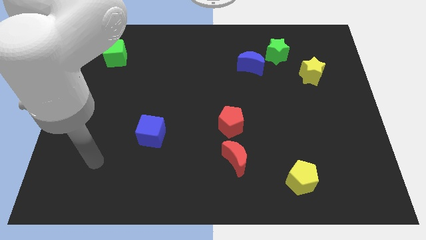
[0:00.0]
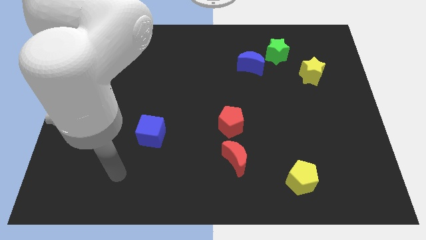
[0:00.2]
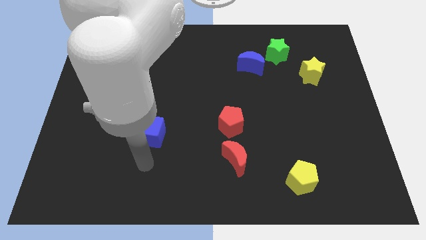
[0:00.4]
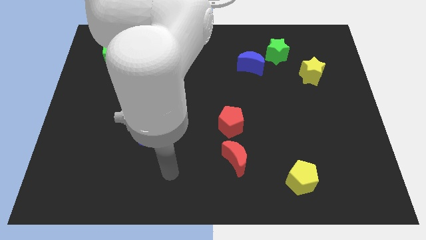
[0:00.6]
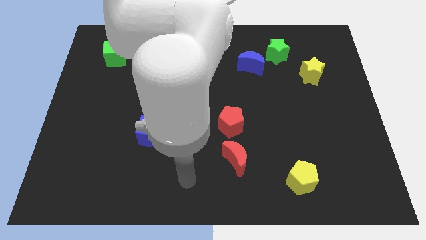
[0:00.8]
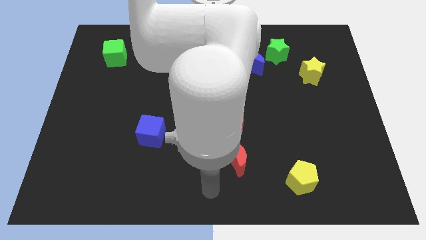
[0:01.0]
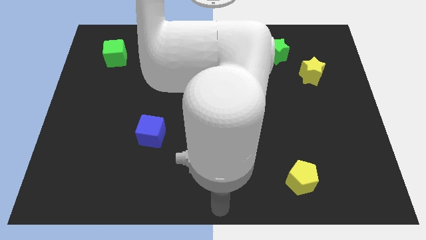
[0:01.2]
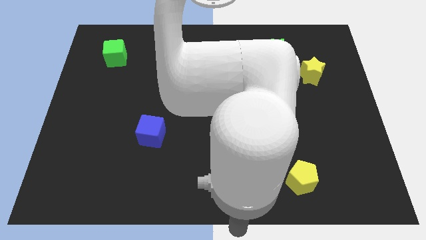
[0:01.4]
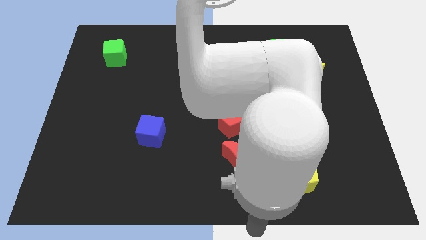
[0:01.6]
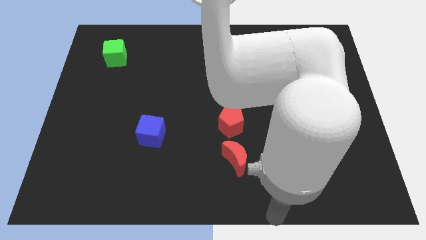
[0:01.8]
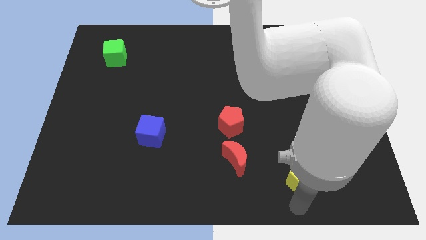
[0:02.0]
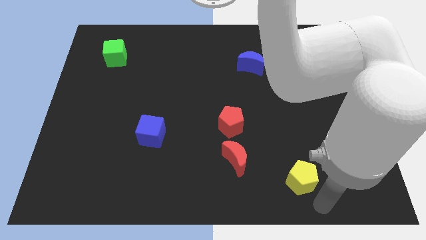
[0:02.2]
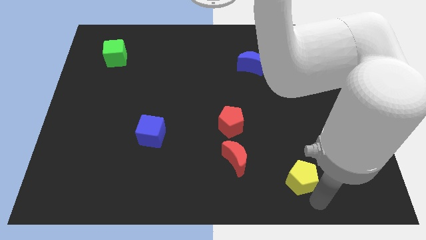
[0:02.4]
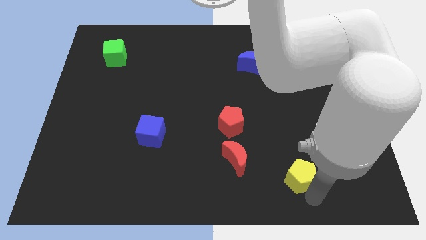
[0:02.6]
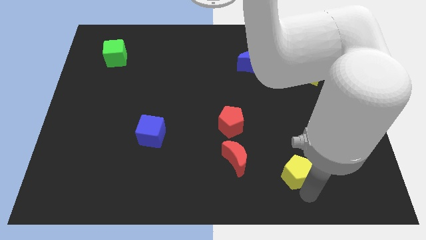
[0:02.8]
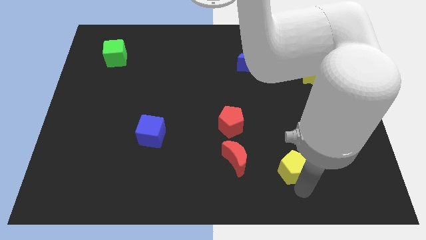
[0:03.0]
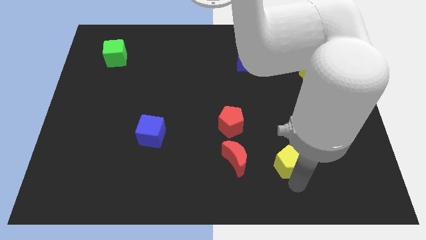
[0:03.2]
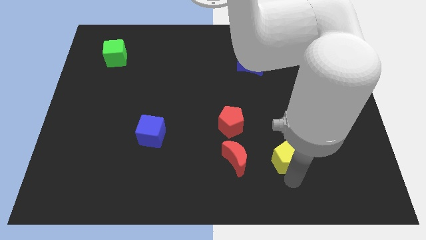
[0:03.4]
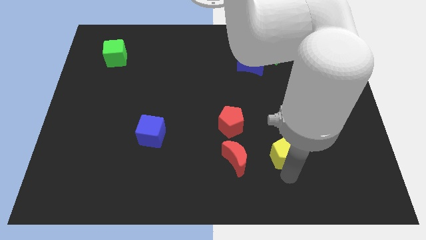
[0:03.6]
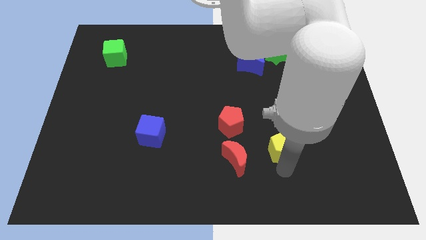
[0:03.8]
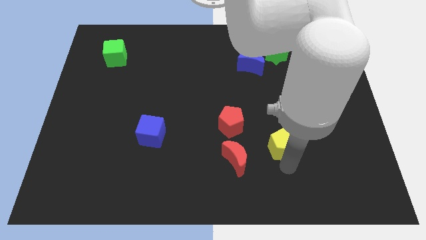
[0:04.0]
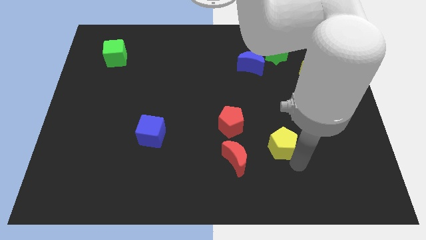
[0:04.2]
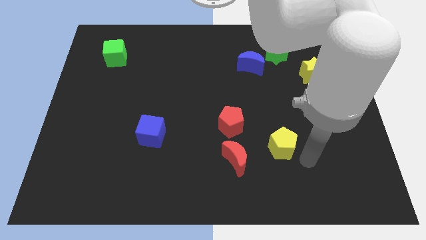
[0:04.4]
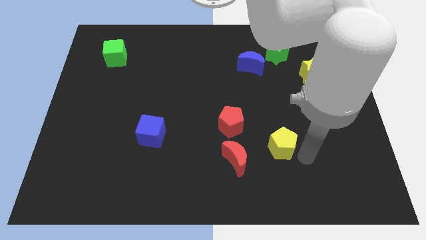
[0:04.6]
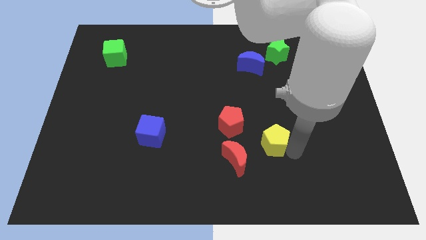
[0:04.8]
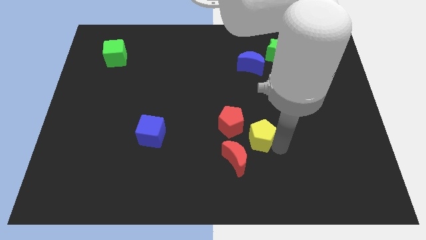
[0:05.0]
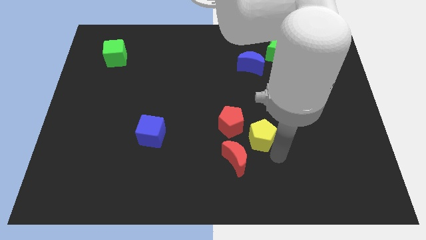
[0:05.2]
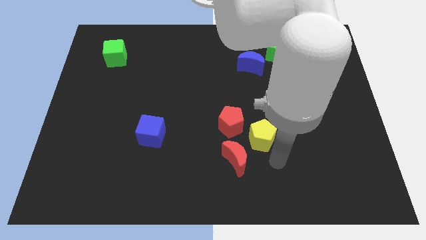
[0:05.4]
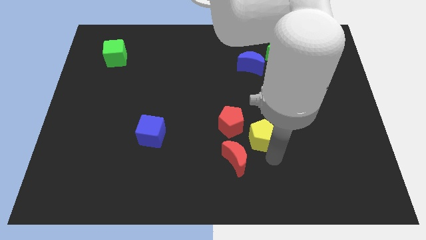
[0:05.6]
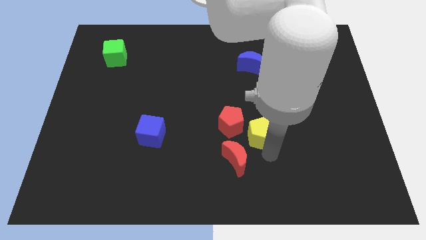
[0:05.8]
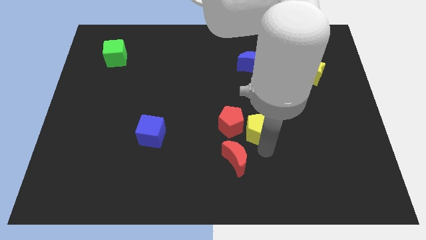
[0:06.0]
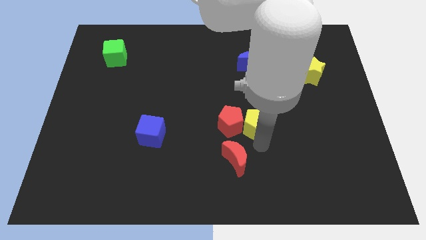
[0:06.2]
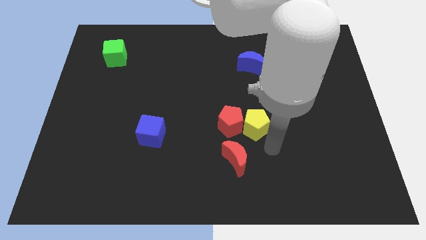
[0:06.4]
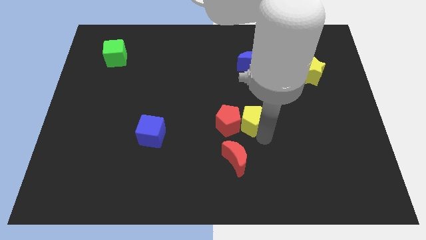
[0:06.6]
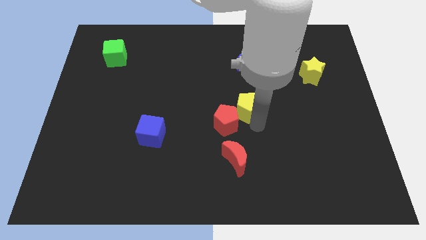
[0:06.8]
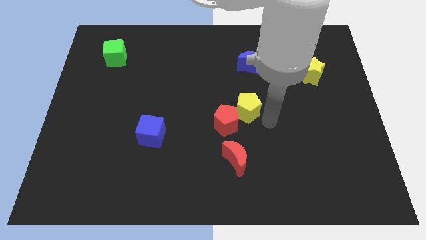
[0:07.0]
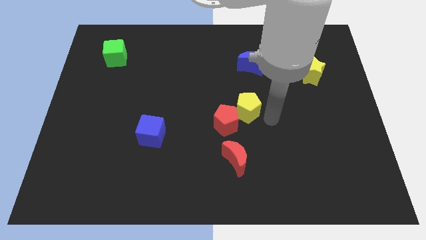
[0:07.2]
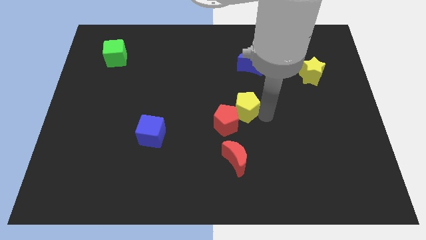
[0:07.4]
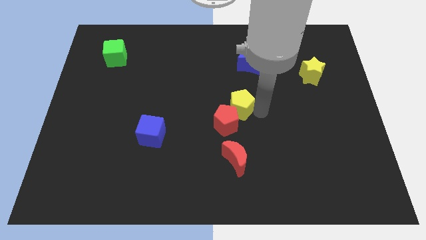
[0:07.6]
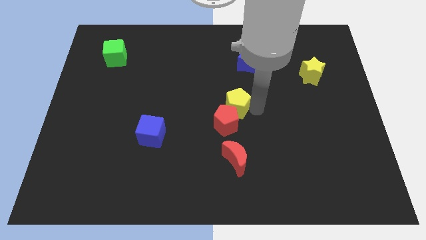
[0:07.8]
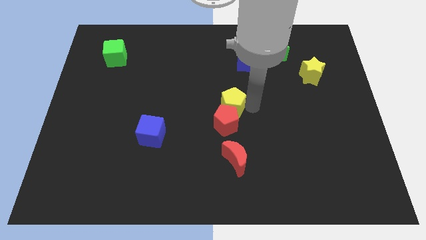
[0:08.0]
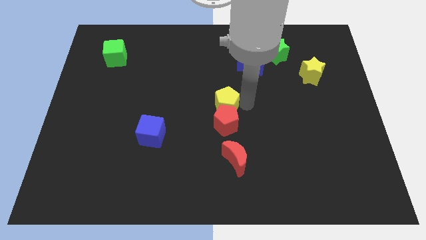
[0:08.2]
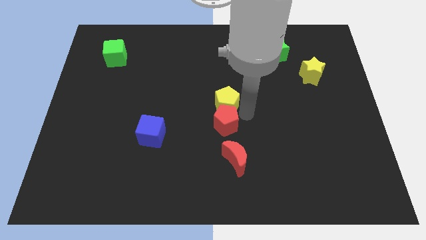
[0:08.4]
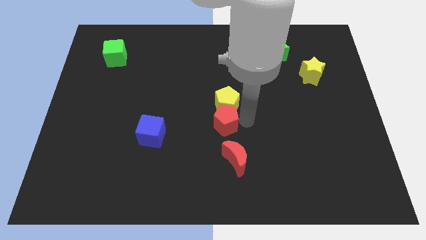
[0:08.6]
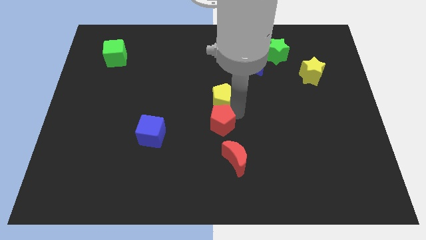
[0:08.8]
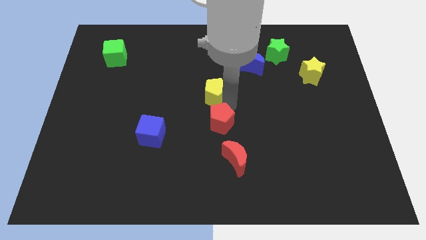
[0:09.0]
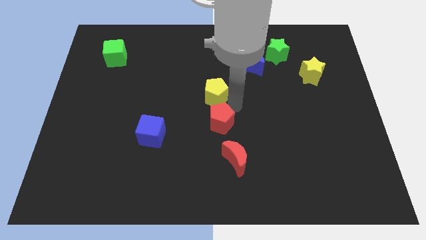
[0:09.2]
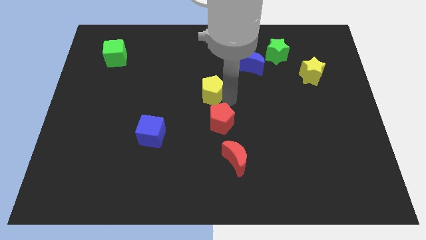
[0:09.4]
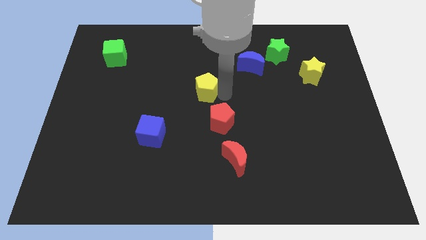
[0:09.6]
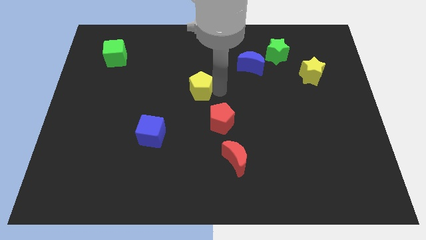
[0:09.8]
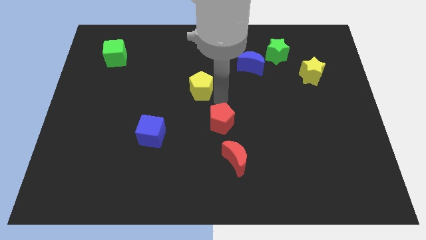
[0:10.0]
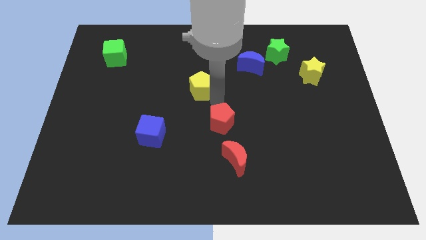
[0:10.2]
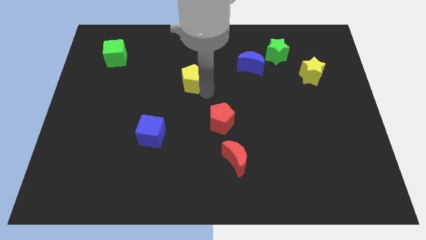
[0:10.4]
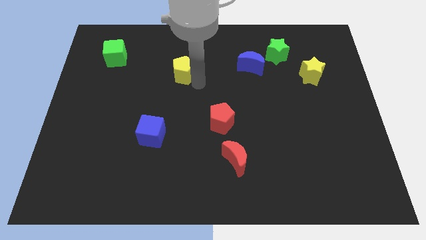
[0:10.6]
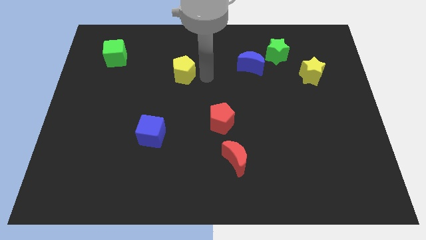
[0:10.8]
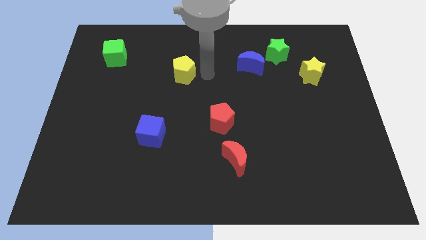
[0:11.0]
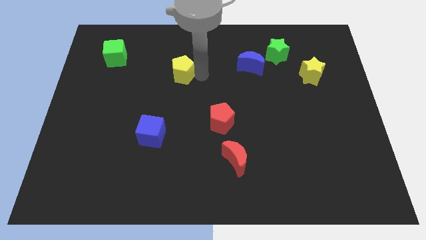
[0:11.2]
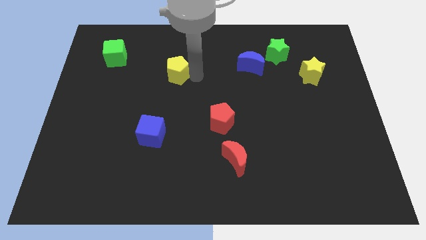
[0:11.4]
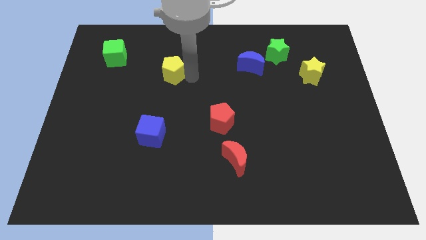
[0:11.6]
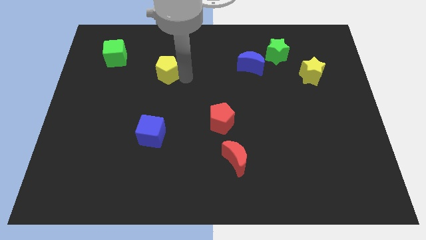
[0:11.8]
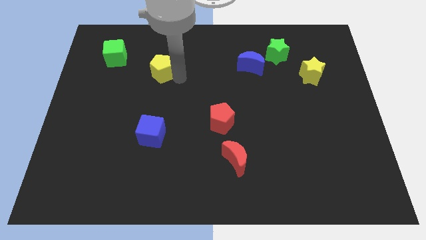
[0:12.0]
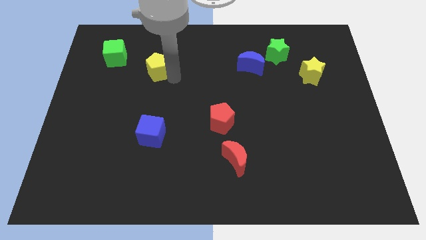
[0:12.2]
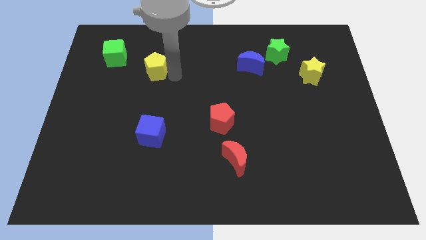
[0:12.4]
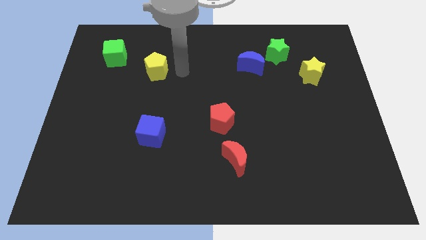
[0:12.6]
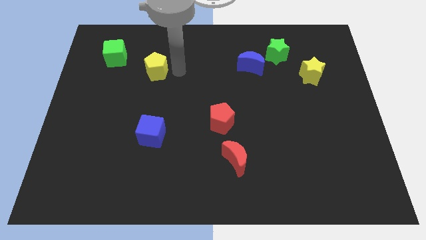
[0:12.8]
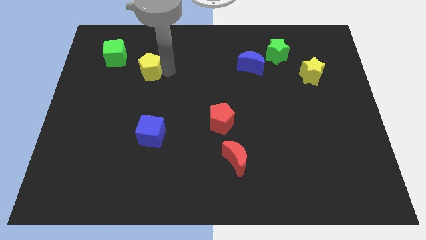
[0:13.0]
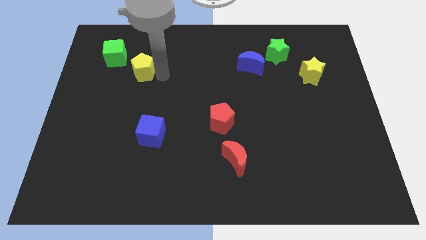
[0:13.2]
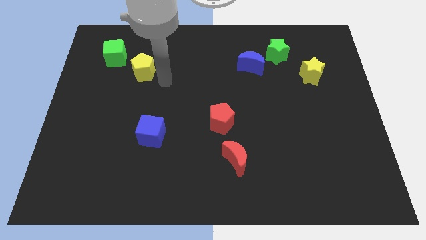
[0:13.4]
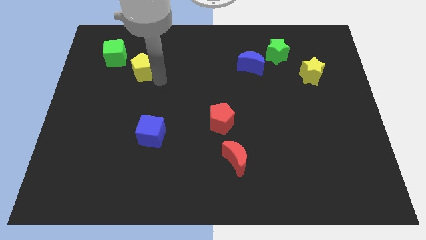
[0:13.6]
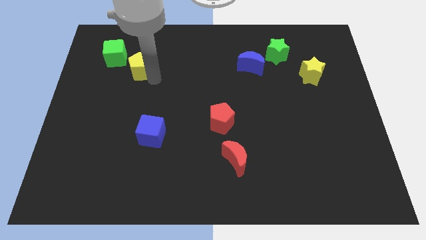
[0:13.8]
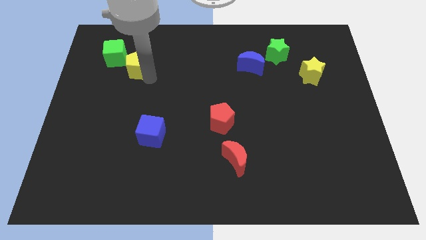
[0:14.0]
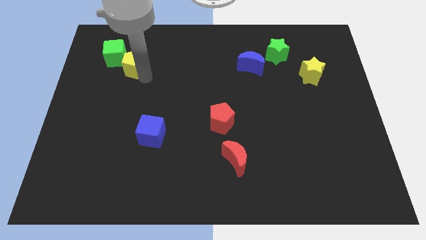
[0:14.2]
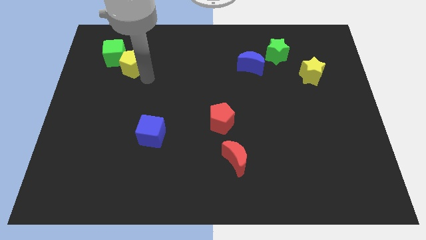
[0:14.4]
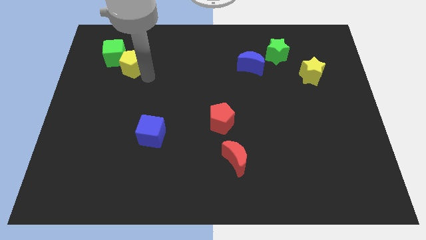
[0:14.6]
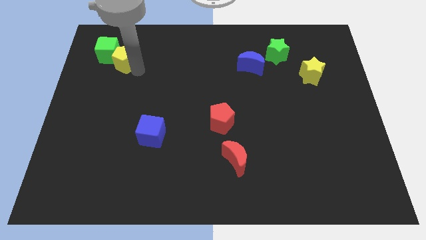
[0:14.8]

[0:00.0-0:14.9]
slide the yellow pentagon next to the green cube
